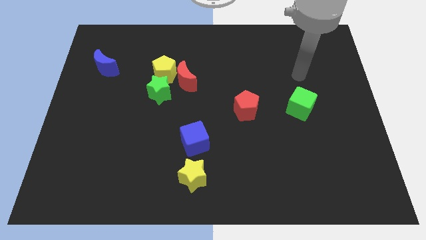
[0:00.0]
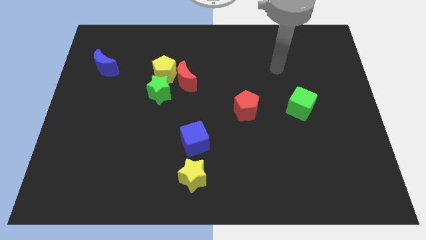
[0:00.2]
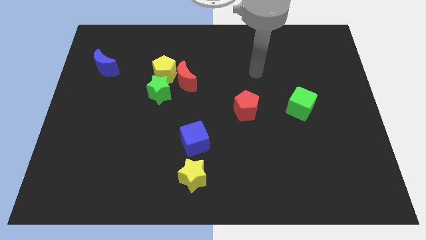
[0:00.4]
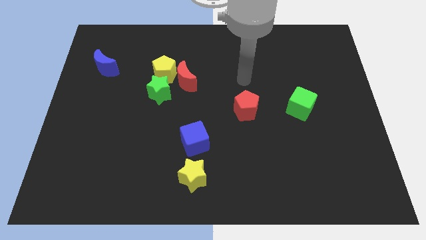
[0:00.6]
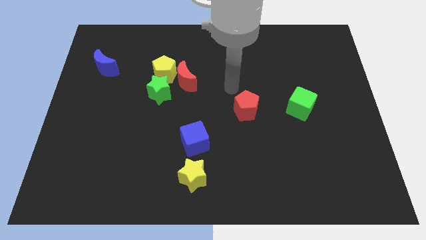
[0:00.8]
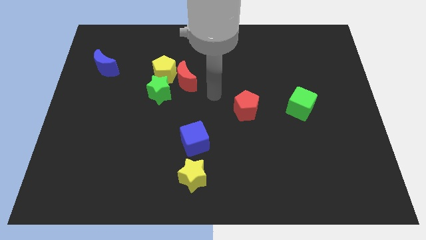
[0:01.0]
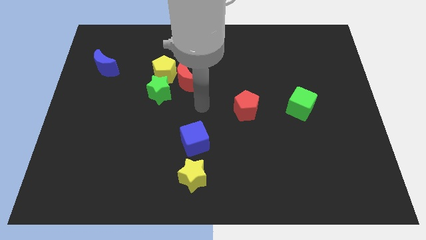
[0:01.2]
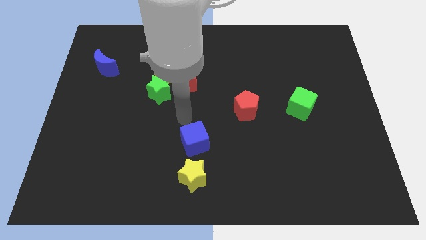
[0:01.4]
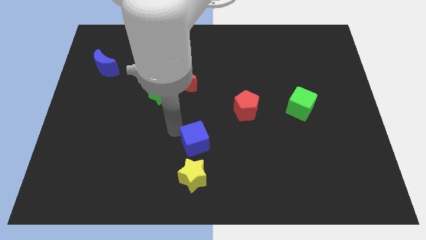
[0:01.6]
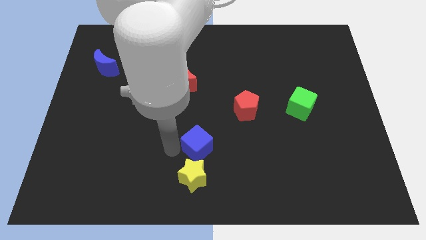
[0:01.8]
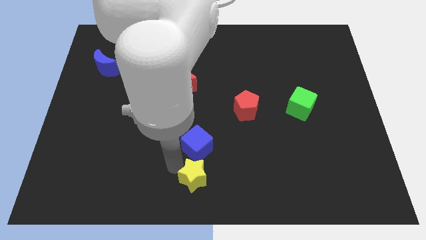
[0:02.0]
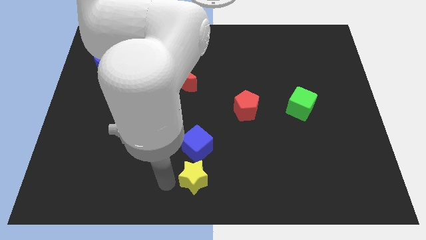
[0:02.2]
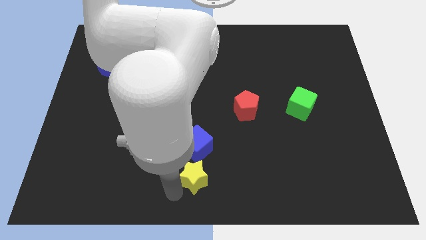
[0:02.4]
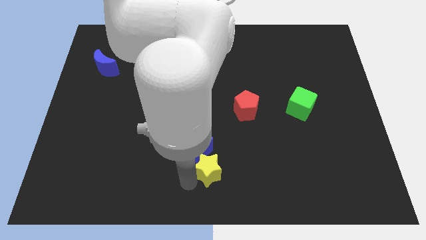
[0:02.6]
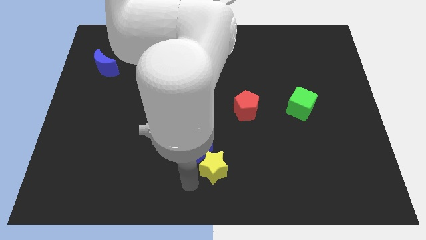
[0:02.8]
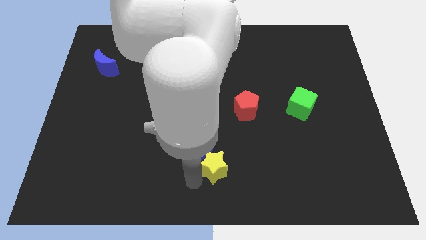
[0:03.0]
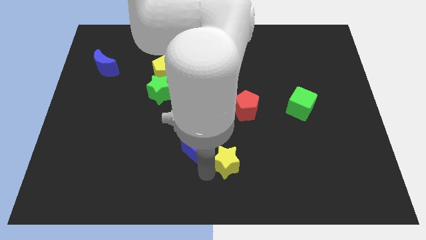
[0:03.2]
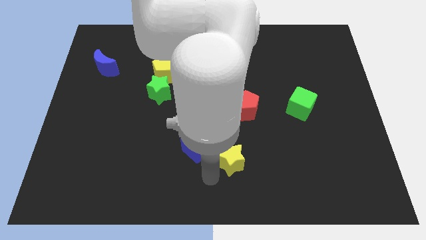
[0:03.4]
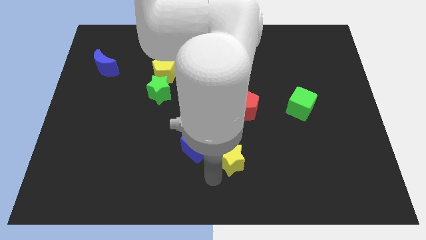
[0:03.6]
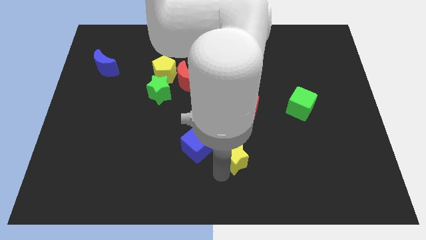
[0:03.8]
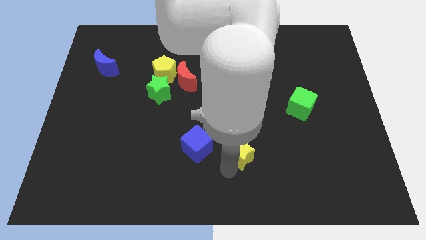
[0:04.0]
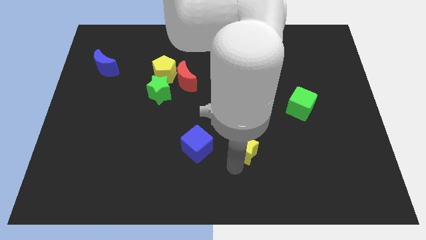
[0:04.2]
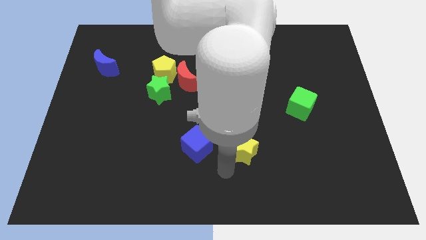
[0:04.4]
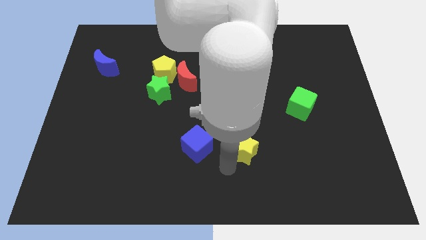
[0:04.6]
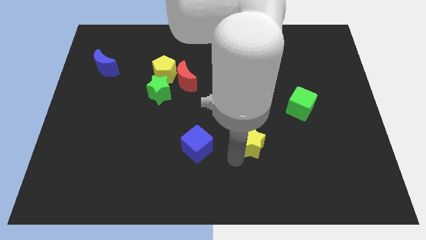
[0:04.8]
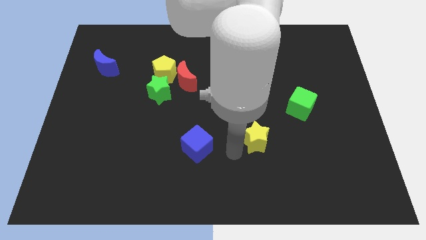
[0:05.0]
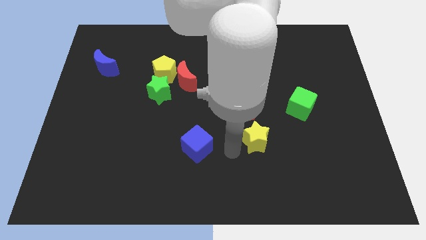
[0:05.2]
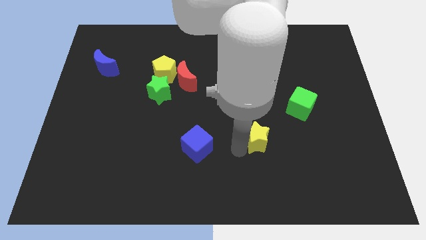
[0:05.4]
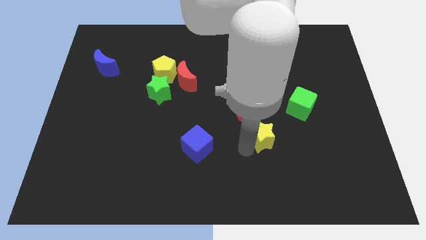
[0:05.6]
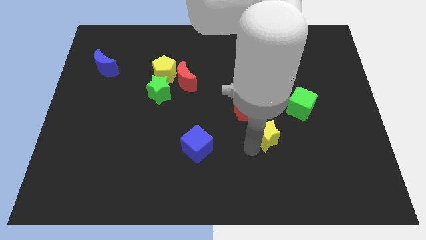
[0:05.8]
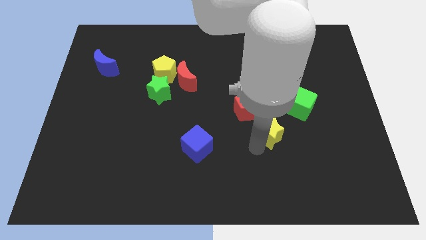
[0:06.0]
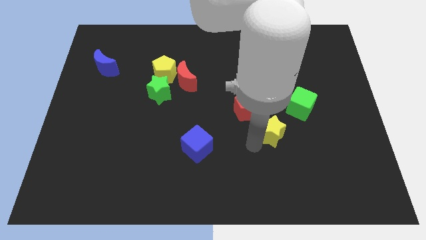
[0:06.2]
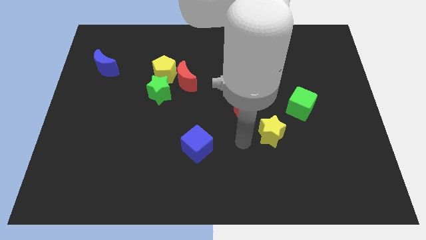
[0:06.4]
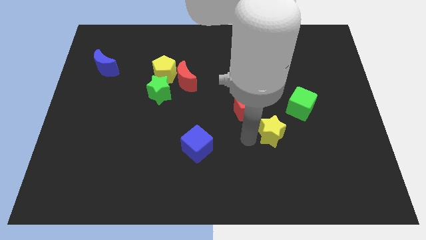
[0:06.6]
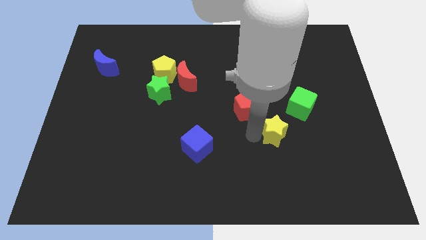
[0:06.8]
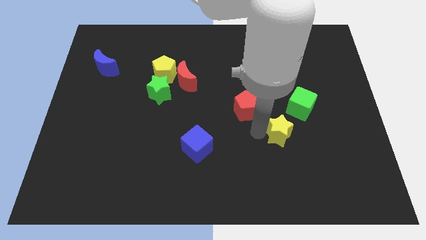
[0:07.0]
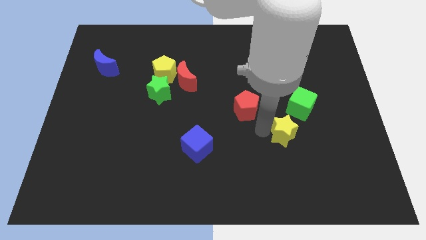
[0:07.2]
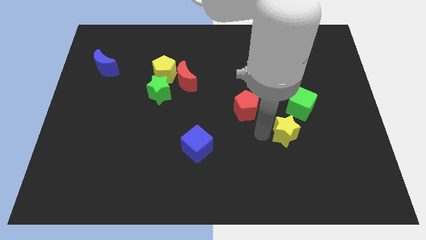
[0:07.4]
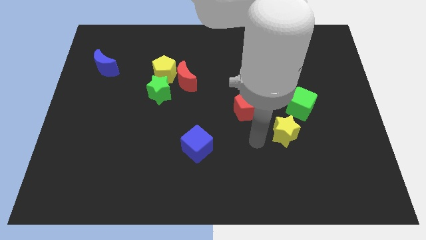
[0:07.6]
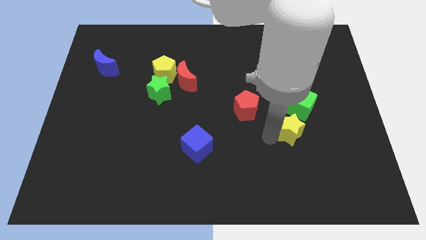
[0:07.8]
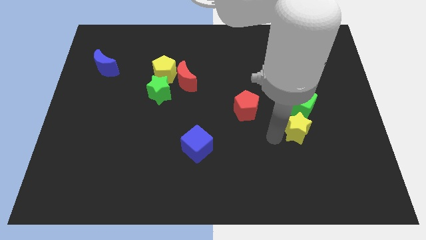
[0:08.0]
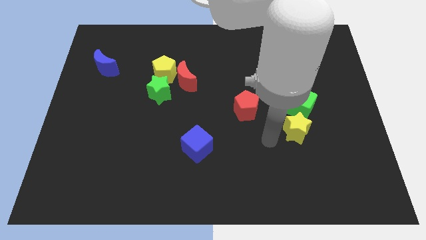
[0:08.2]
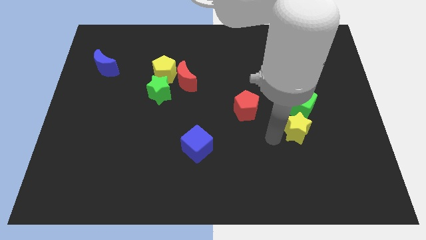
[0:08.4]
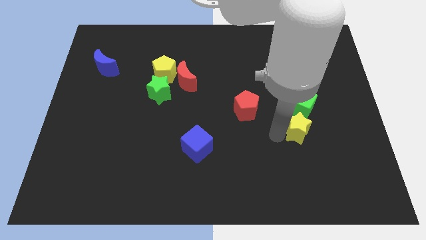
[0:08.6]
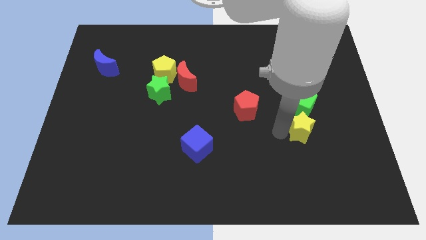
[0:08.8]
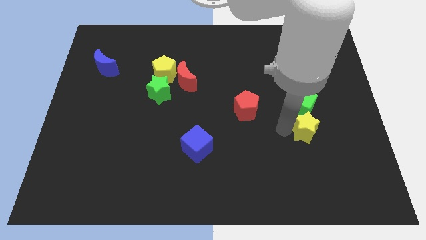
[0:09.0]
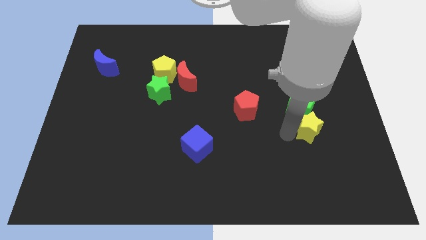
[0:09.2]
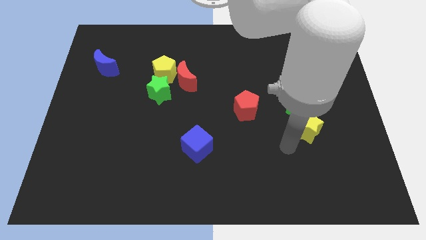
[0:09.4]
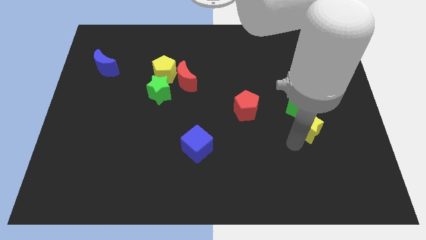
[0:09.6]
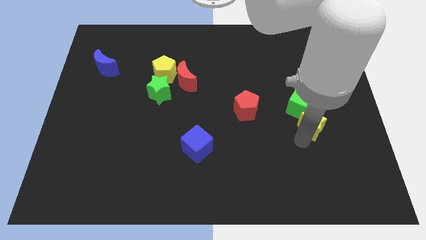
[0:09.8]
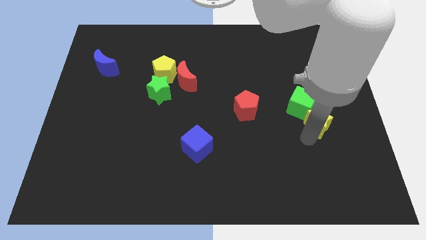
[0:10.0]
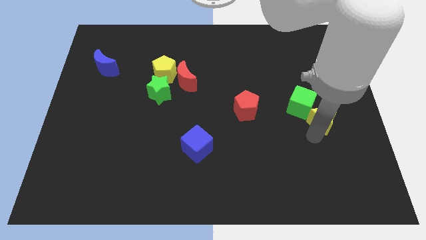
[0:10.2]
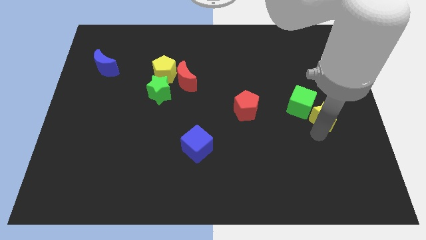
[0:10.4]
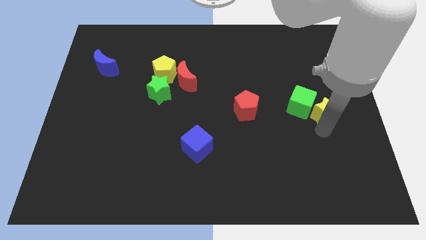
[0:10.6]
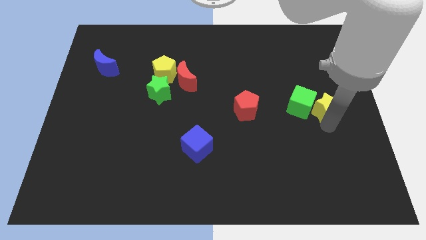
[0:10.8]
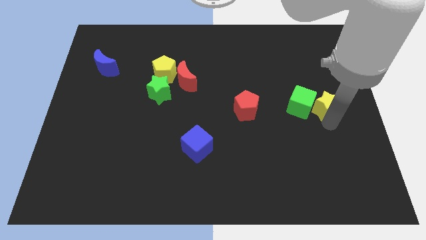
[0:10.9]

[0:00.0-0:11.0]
put the yellow star to the top right side of the green cube

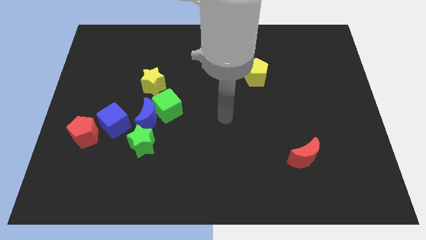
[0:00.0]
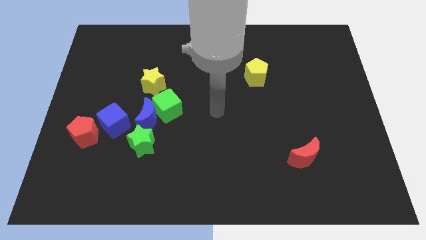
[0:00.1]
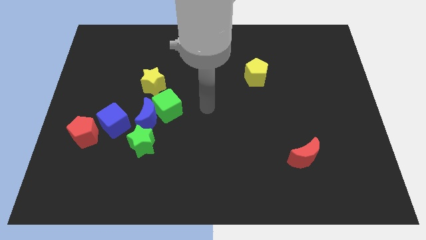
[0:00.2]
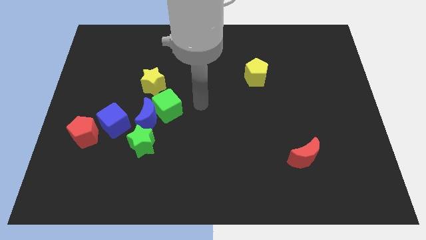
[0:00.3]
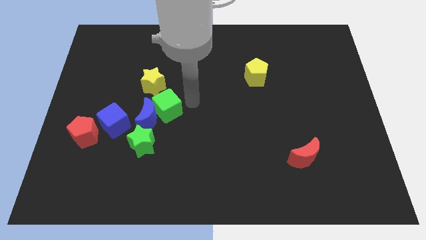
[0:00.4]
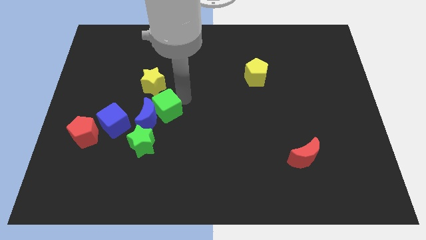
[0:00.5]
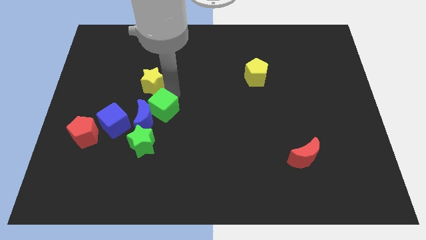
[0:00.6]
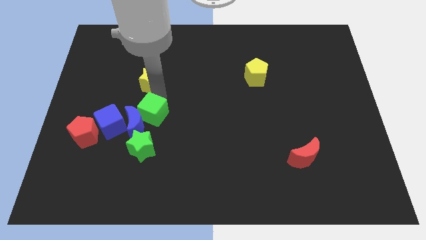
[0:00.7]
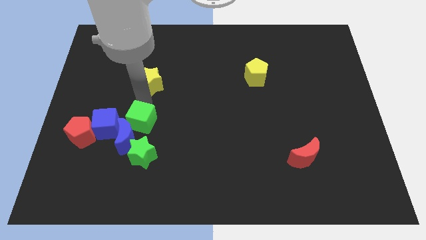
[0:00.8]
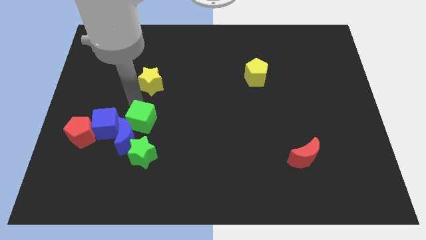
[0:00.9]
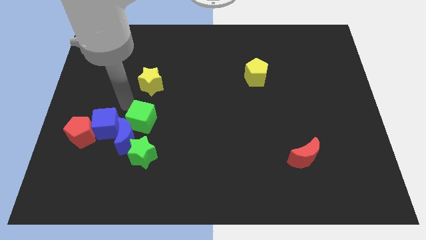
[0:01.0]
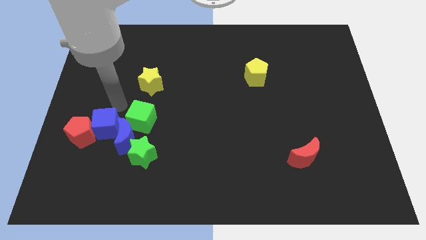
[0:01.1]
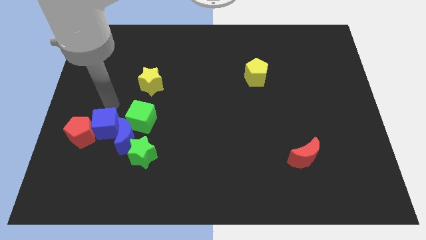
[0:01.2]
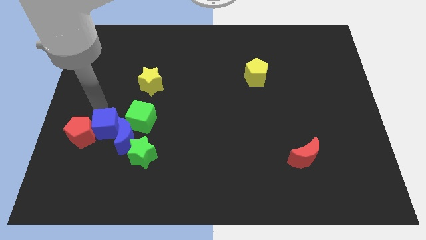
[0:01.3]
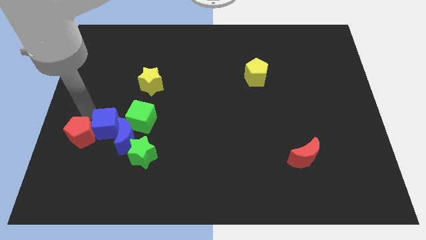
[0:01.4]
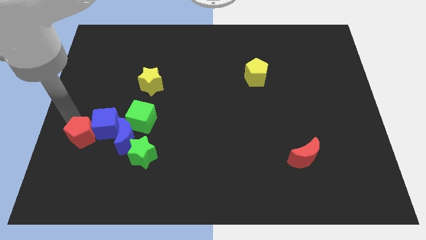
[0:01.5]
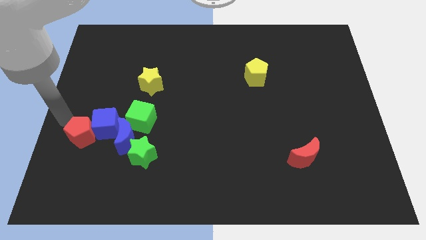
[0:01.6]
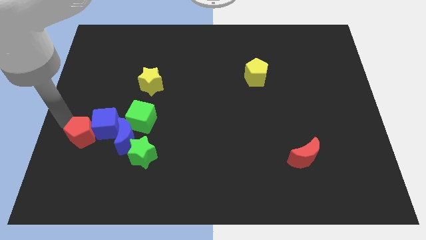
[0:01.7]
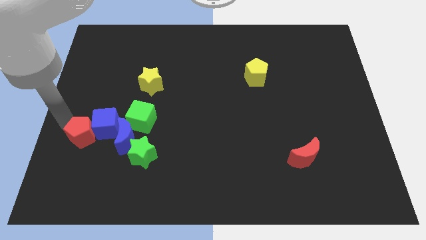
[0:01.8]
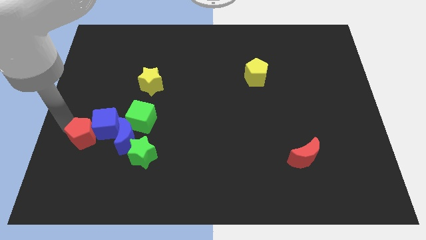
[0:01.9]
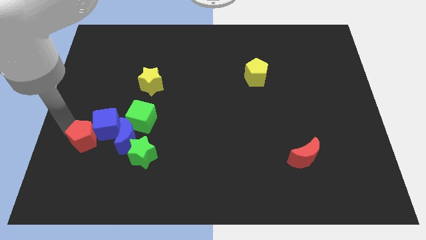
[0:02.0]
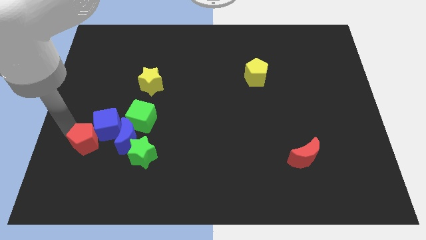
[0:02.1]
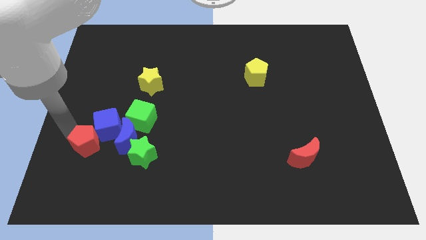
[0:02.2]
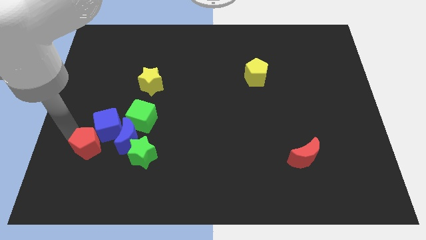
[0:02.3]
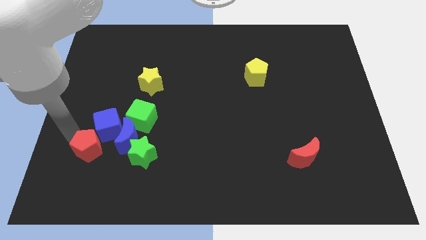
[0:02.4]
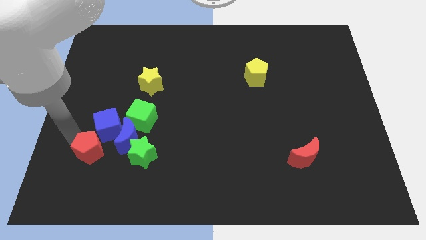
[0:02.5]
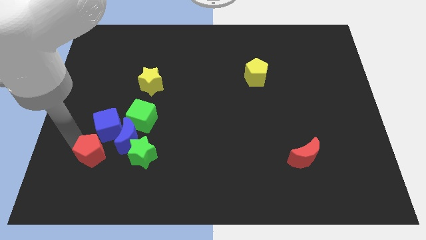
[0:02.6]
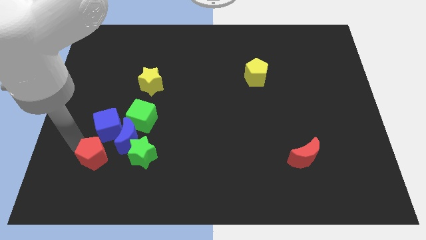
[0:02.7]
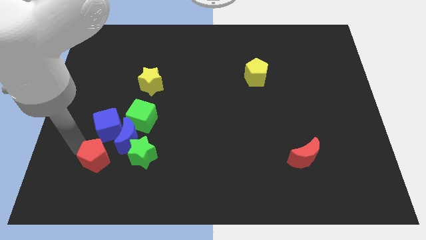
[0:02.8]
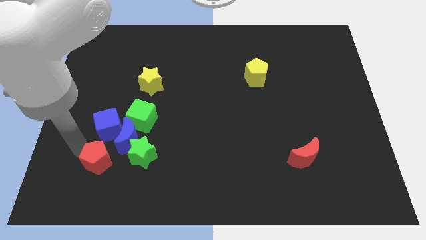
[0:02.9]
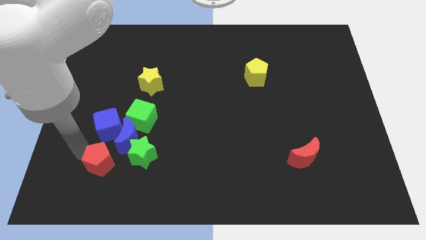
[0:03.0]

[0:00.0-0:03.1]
move the red pentagon diagonally down and to the left of the green star
